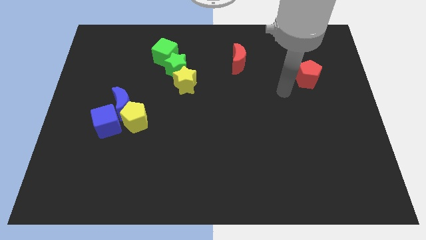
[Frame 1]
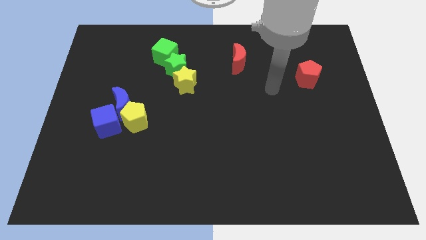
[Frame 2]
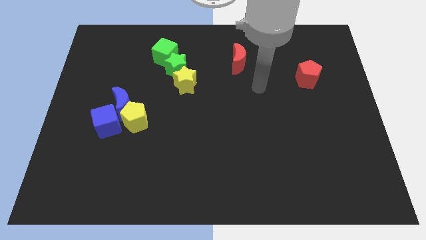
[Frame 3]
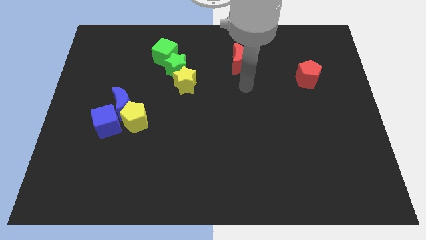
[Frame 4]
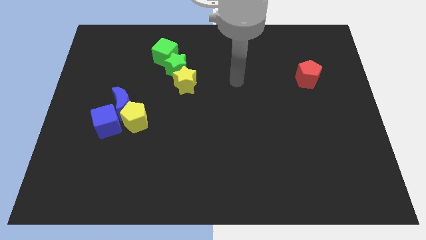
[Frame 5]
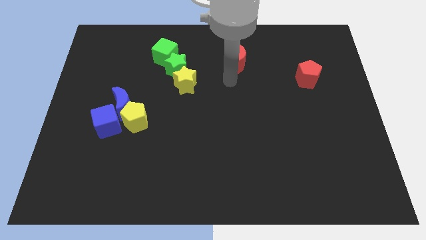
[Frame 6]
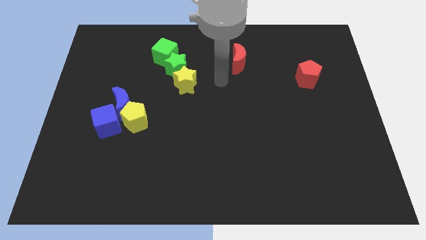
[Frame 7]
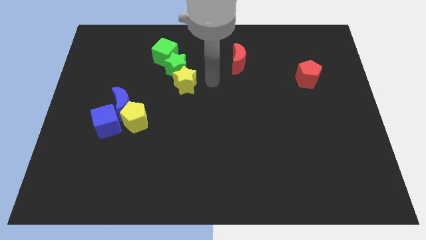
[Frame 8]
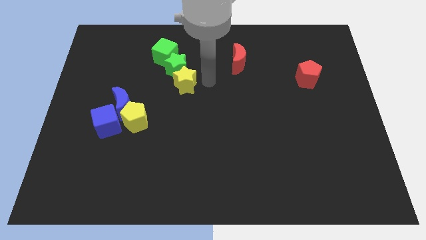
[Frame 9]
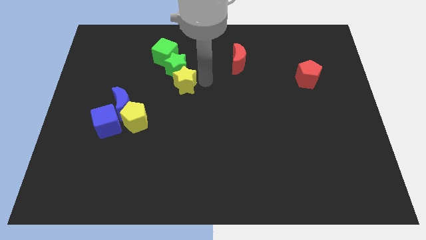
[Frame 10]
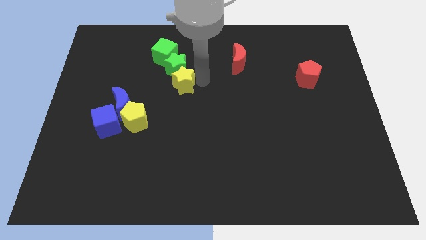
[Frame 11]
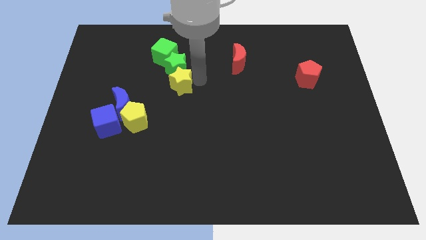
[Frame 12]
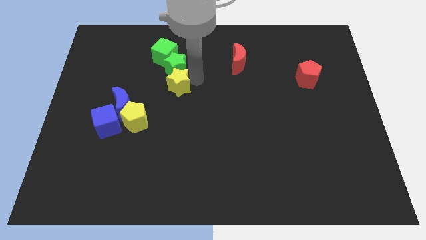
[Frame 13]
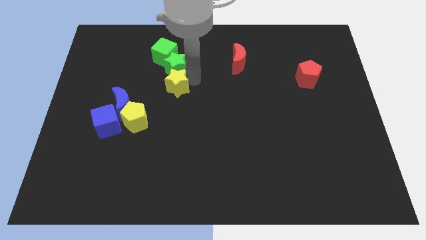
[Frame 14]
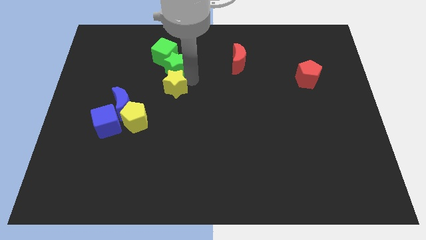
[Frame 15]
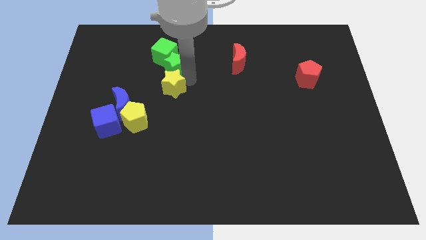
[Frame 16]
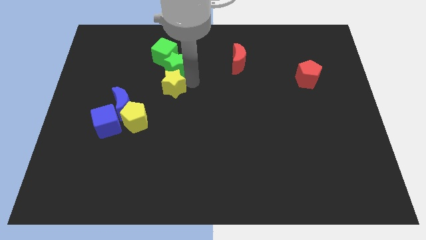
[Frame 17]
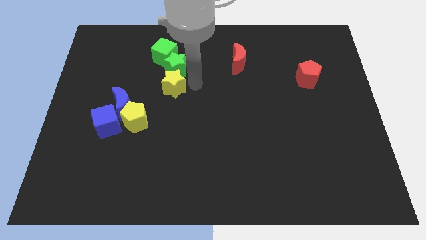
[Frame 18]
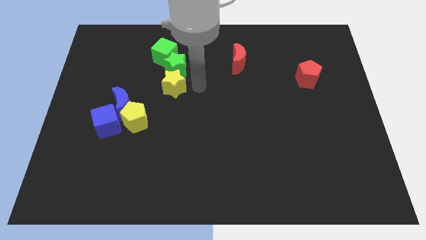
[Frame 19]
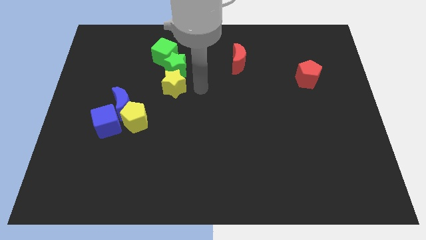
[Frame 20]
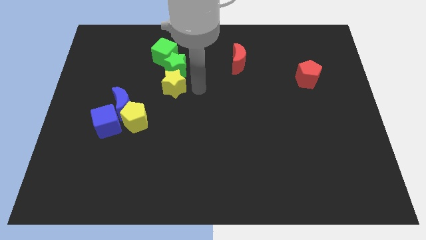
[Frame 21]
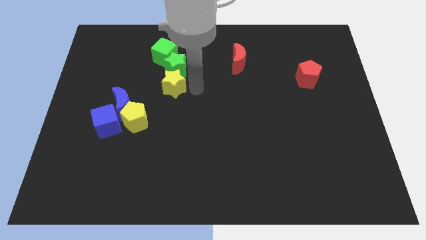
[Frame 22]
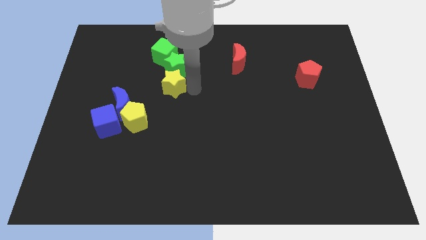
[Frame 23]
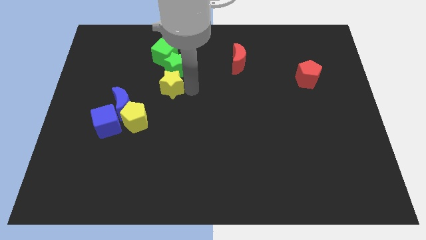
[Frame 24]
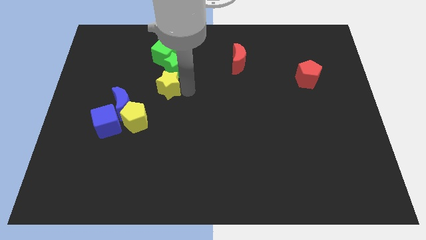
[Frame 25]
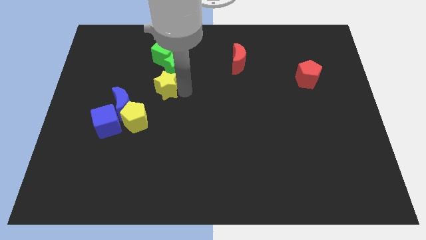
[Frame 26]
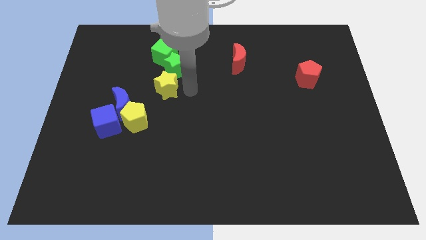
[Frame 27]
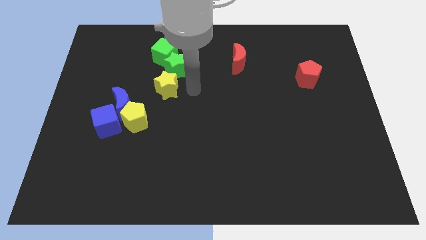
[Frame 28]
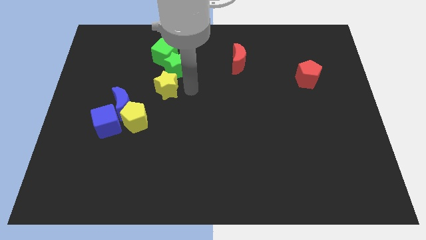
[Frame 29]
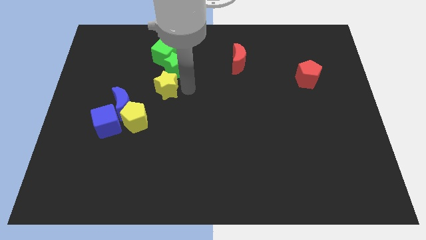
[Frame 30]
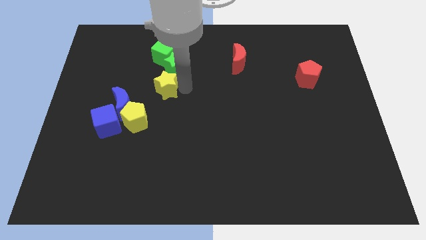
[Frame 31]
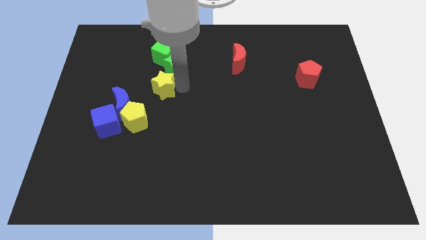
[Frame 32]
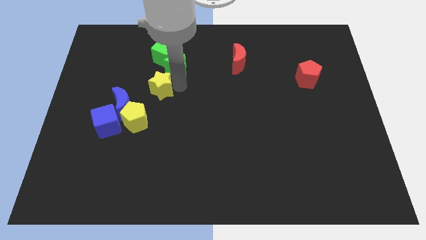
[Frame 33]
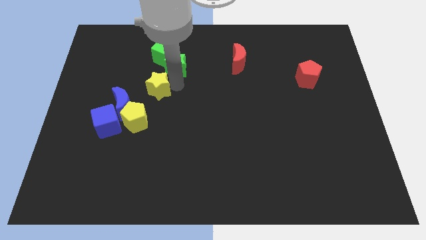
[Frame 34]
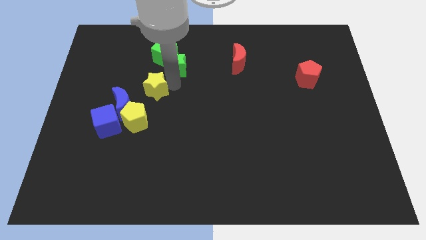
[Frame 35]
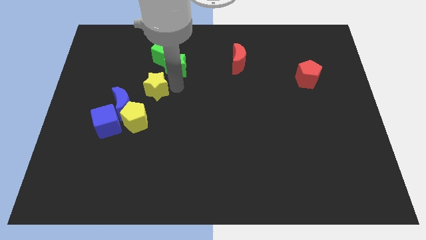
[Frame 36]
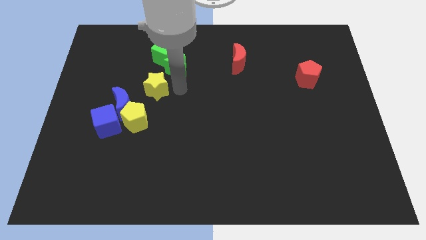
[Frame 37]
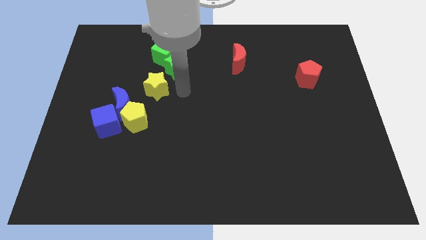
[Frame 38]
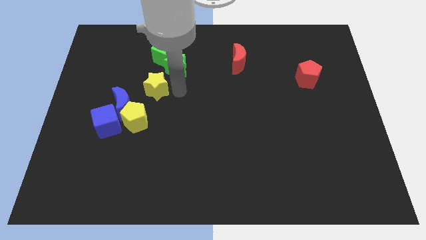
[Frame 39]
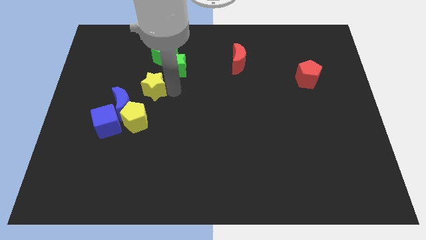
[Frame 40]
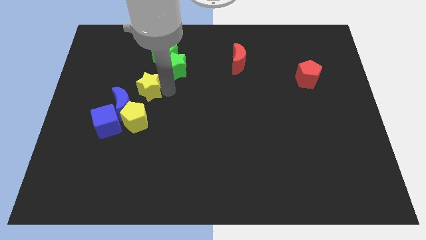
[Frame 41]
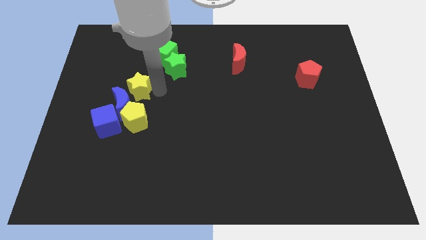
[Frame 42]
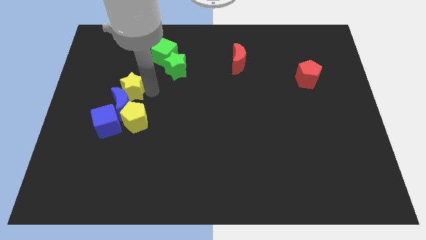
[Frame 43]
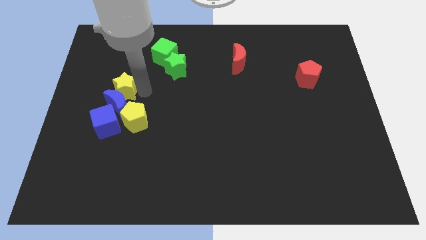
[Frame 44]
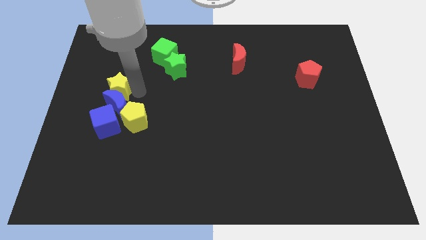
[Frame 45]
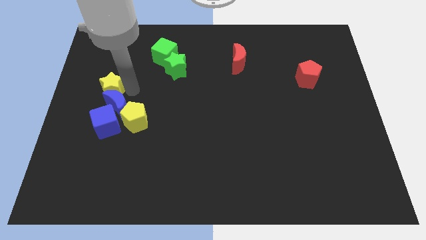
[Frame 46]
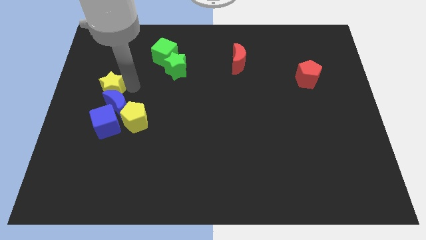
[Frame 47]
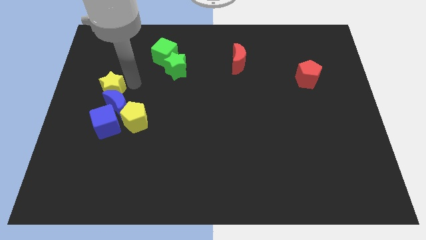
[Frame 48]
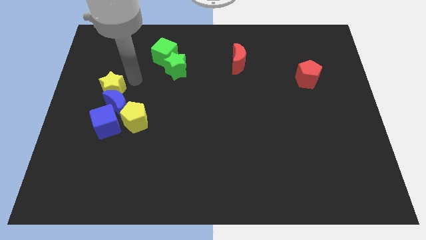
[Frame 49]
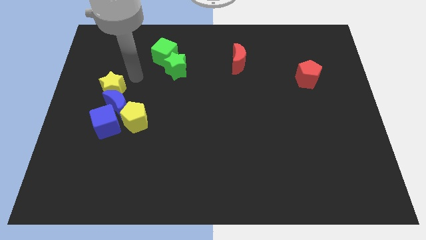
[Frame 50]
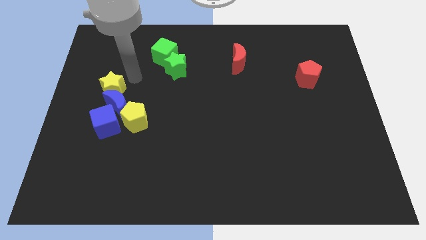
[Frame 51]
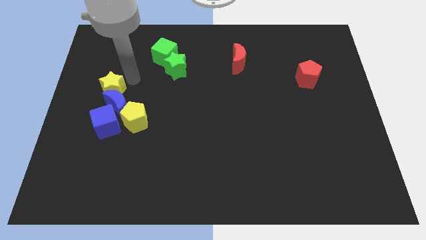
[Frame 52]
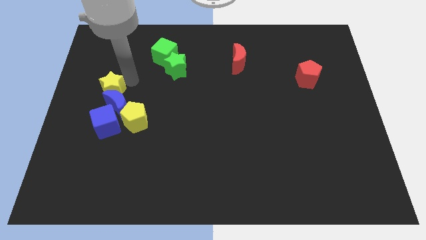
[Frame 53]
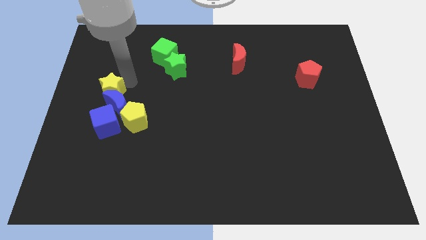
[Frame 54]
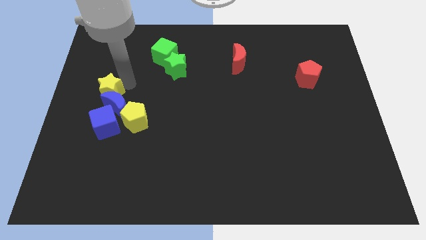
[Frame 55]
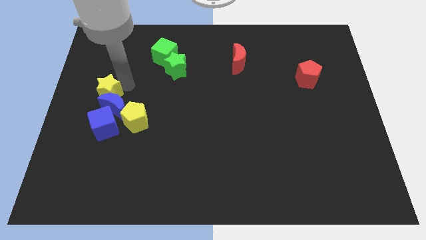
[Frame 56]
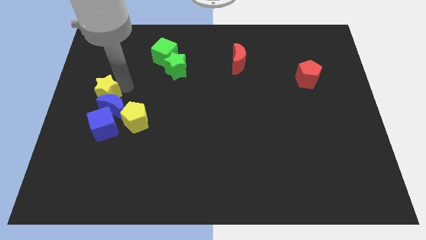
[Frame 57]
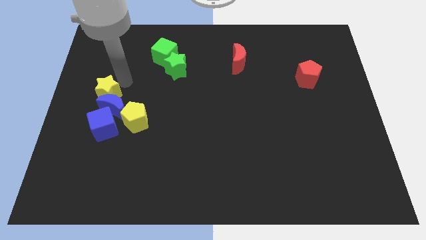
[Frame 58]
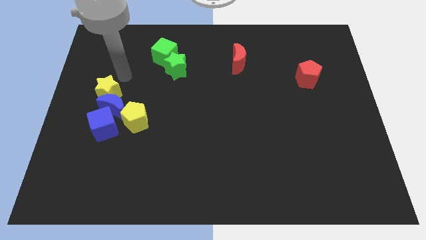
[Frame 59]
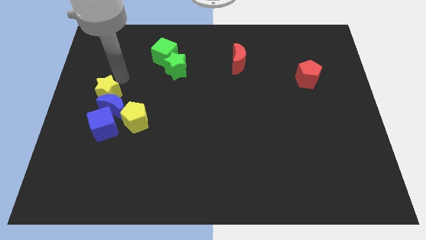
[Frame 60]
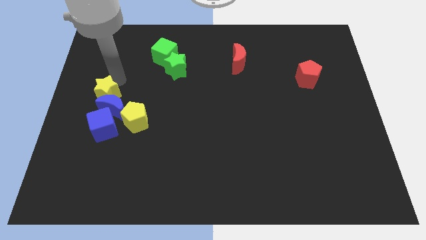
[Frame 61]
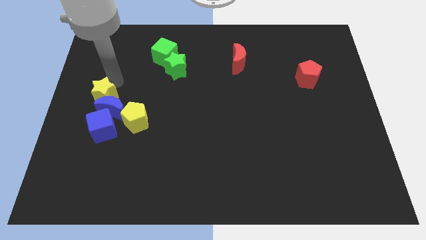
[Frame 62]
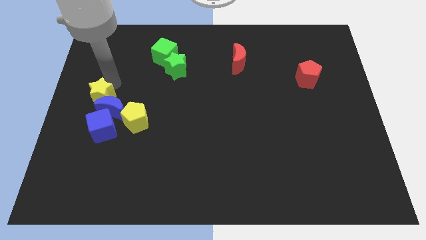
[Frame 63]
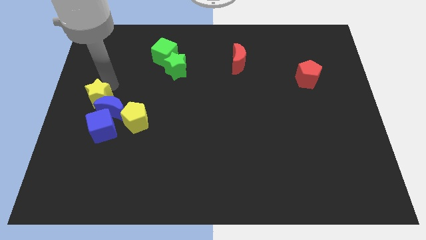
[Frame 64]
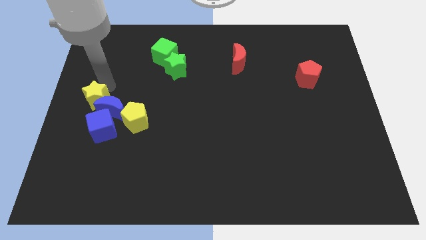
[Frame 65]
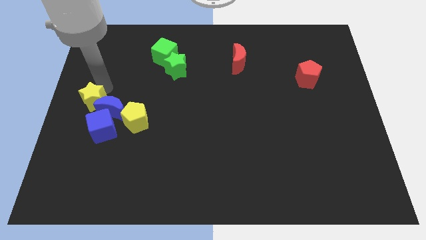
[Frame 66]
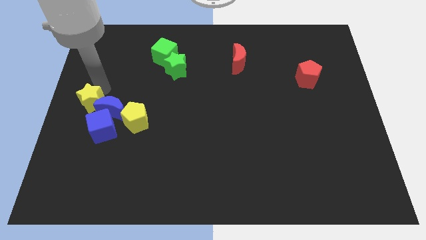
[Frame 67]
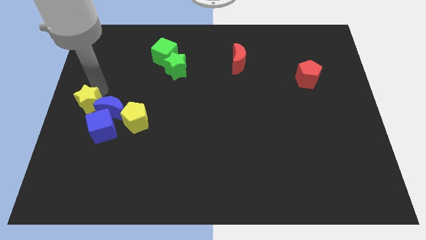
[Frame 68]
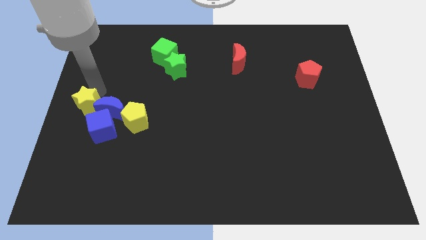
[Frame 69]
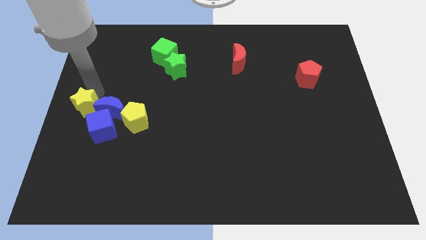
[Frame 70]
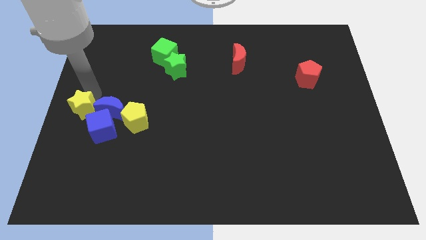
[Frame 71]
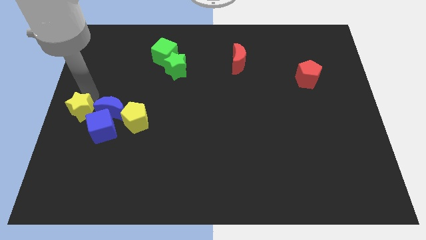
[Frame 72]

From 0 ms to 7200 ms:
move the yellow star to the bottom left of the blue moon
